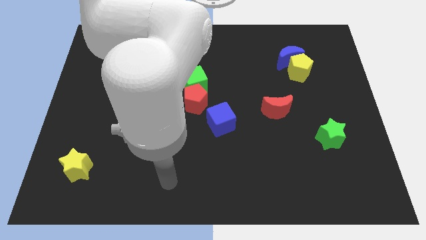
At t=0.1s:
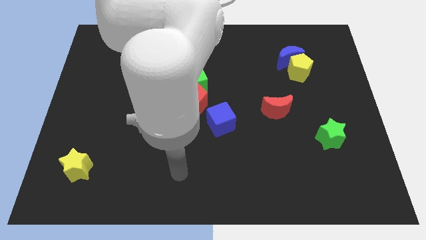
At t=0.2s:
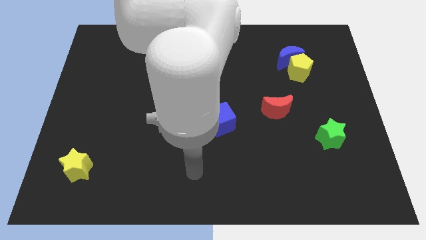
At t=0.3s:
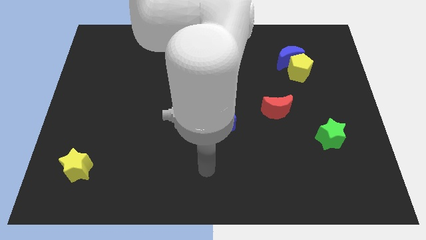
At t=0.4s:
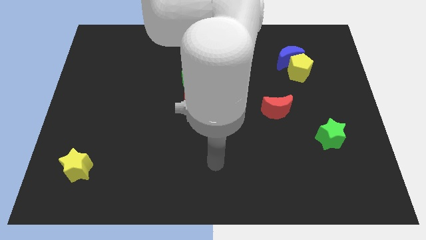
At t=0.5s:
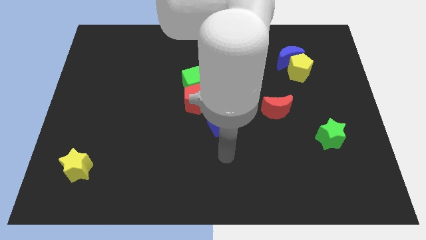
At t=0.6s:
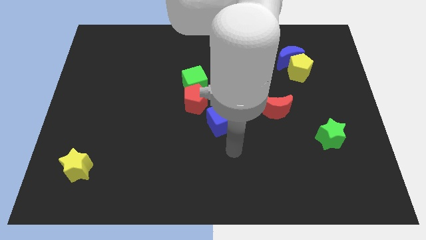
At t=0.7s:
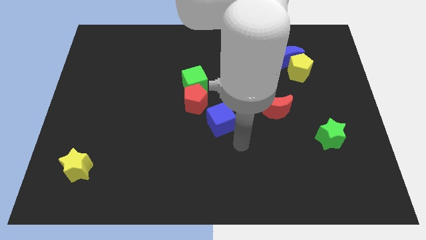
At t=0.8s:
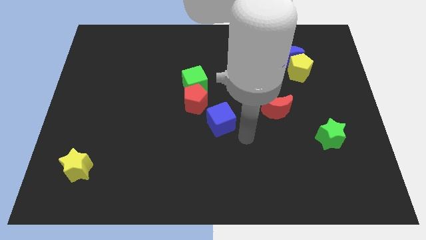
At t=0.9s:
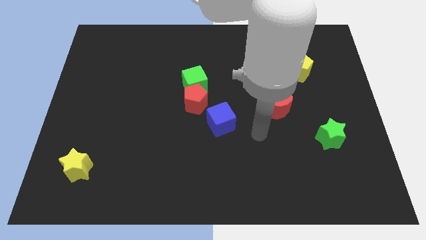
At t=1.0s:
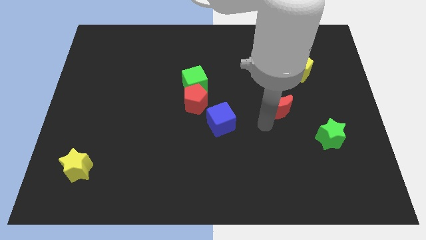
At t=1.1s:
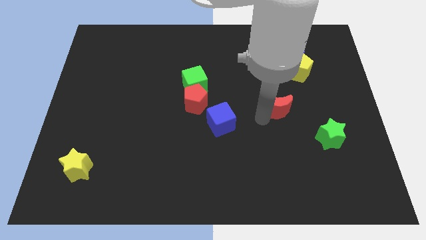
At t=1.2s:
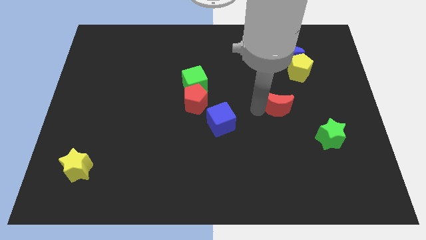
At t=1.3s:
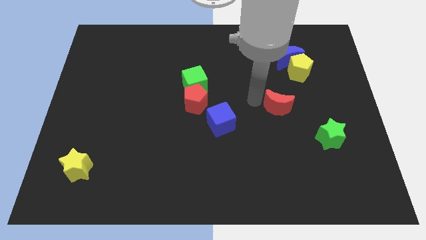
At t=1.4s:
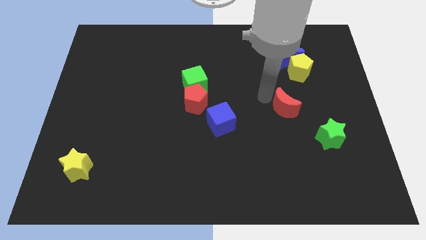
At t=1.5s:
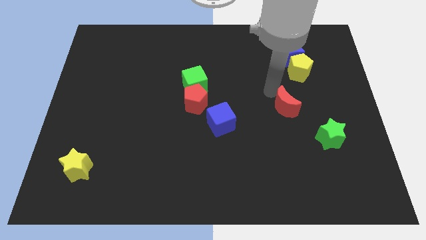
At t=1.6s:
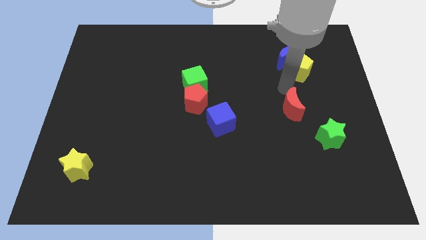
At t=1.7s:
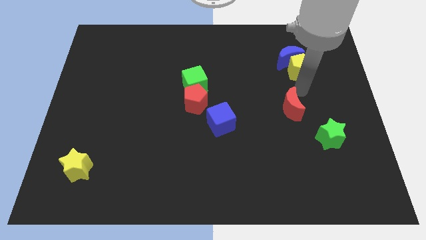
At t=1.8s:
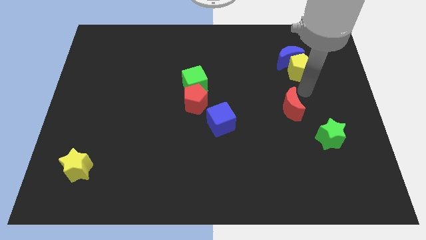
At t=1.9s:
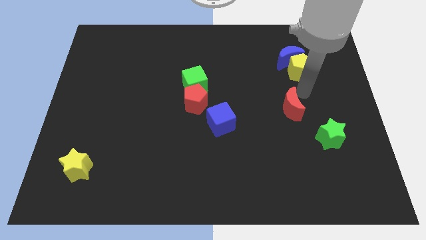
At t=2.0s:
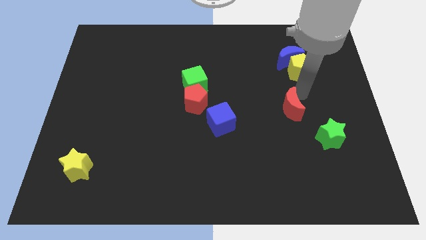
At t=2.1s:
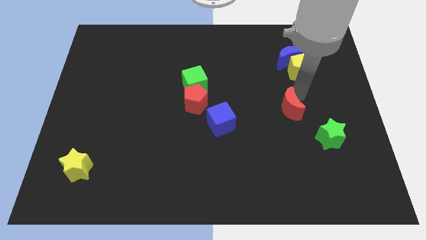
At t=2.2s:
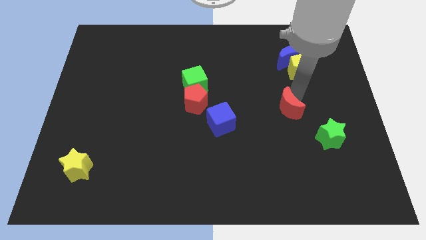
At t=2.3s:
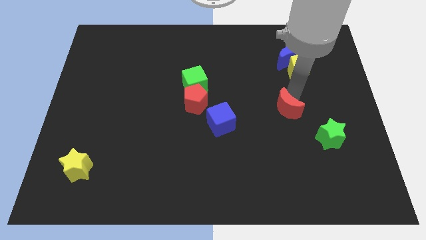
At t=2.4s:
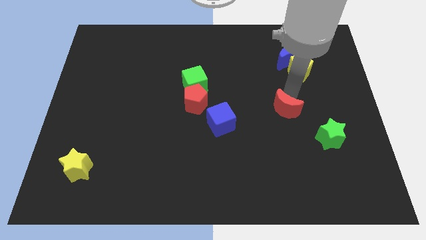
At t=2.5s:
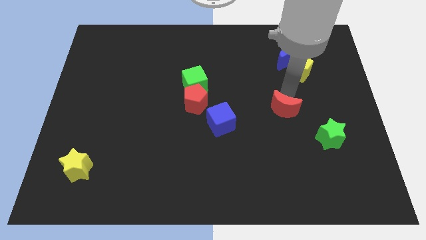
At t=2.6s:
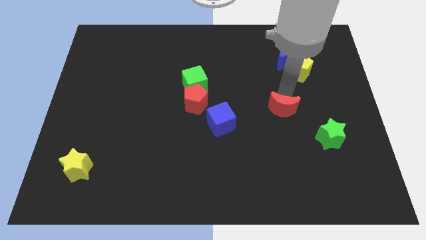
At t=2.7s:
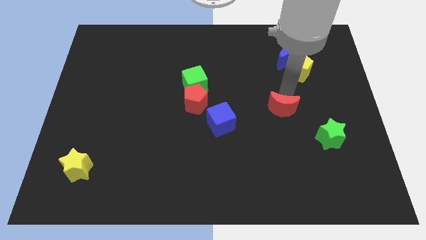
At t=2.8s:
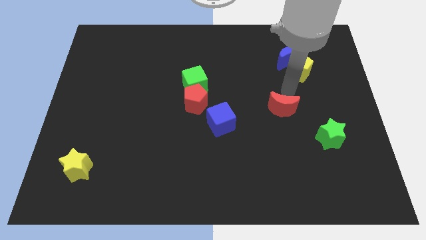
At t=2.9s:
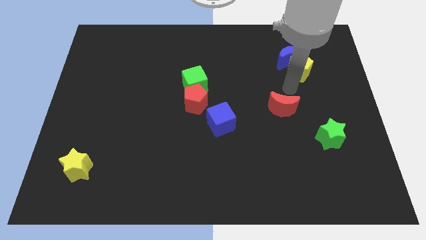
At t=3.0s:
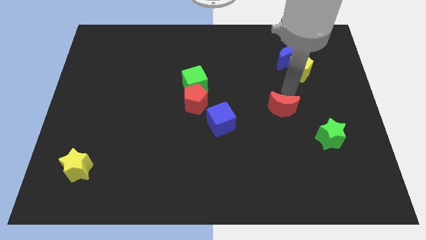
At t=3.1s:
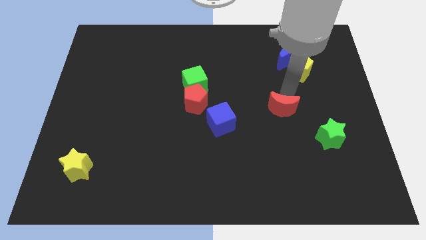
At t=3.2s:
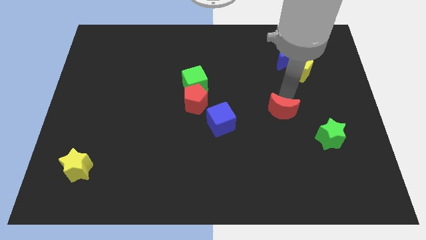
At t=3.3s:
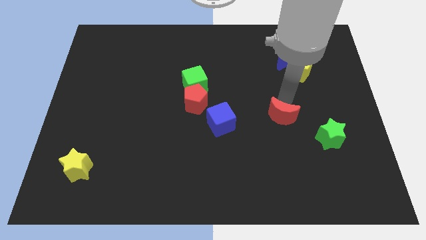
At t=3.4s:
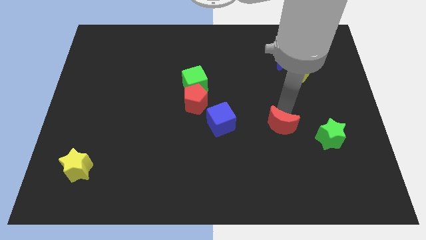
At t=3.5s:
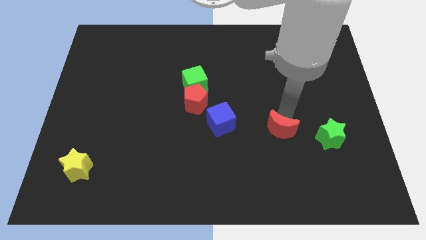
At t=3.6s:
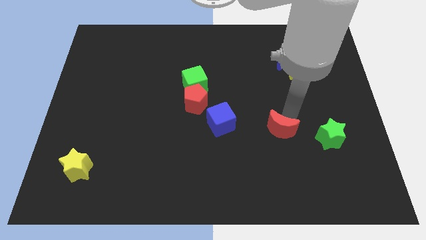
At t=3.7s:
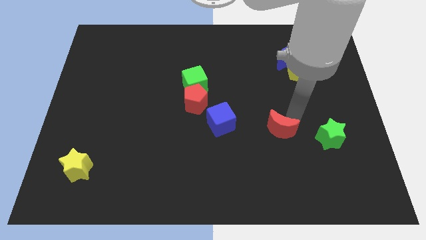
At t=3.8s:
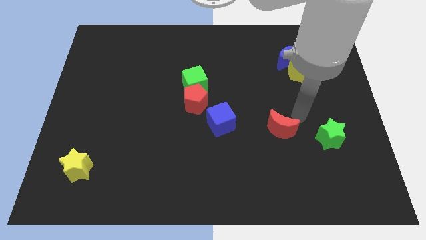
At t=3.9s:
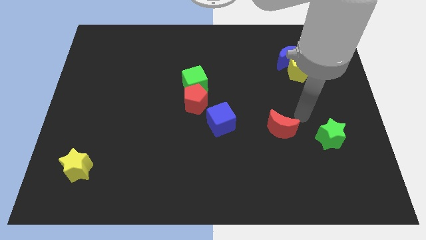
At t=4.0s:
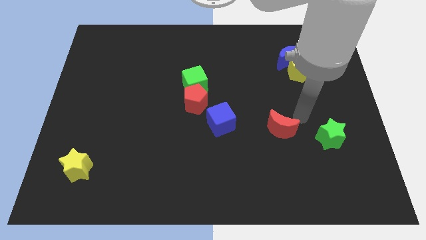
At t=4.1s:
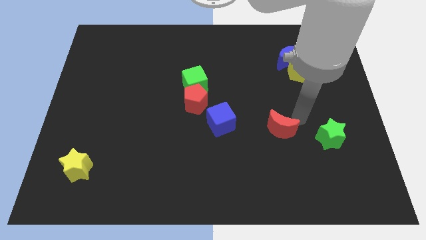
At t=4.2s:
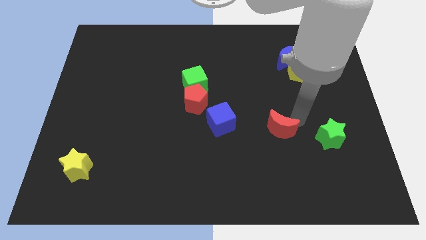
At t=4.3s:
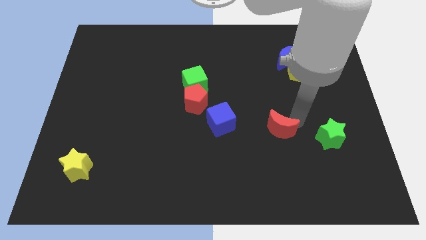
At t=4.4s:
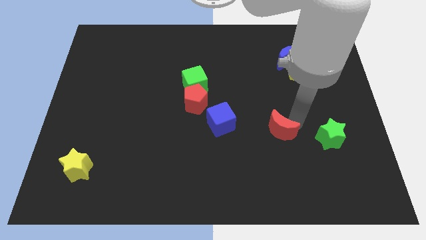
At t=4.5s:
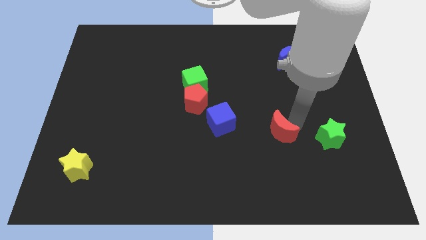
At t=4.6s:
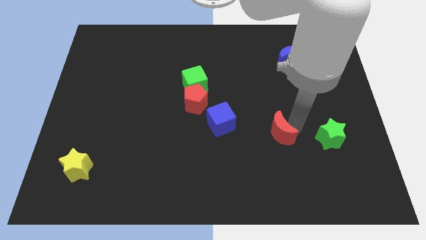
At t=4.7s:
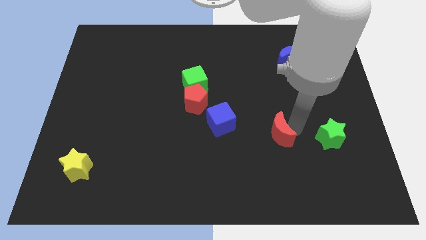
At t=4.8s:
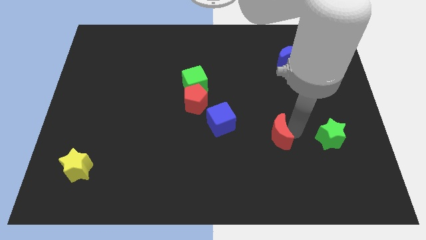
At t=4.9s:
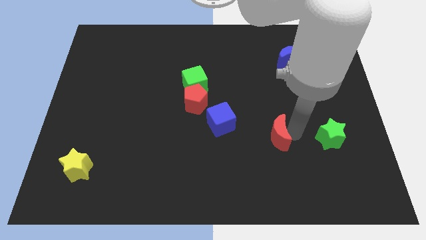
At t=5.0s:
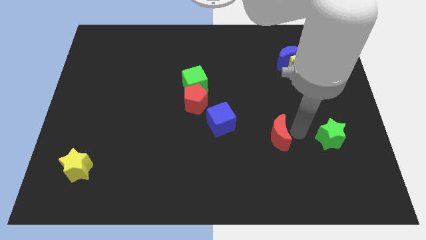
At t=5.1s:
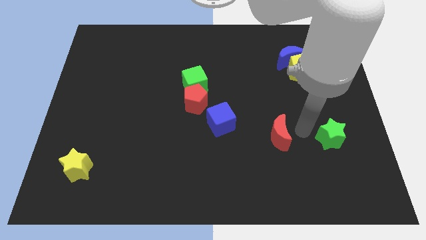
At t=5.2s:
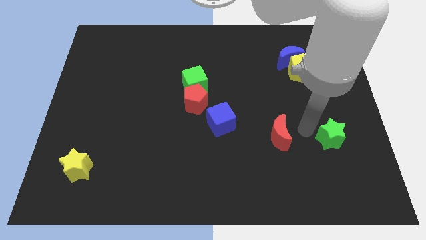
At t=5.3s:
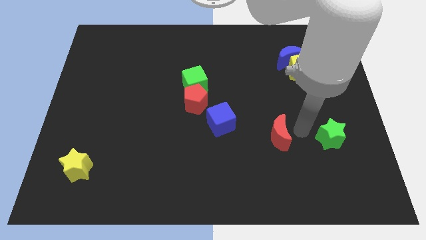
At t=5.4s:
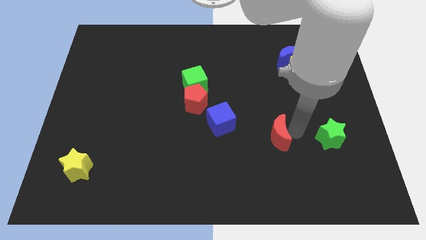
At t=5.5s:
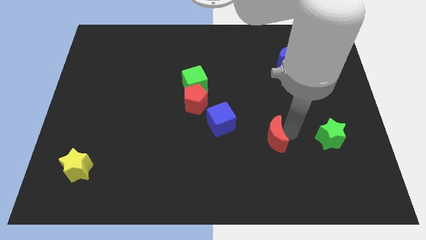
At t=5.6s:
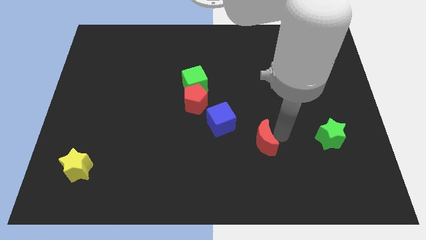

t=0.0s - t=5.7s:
push the red moon slightly downwards and left

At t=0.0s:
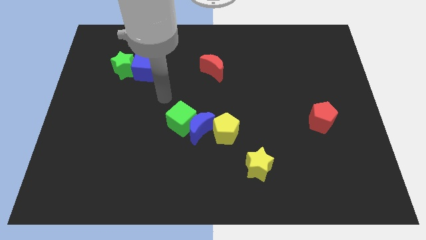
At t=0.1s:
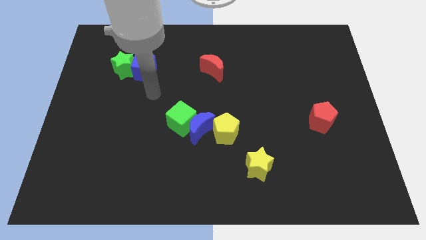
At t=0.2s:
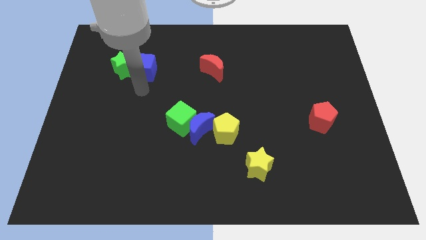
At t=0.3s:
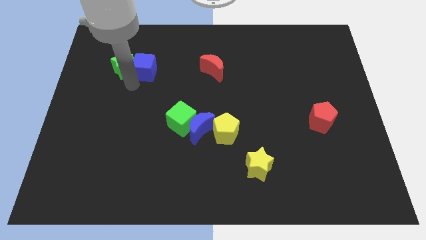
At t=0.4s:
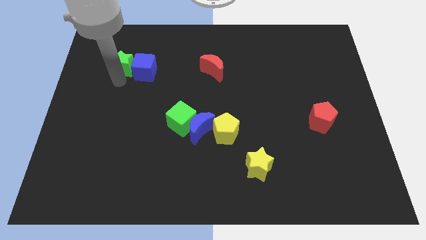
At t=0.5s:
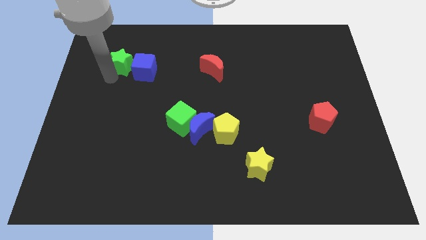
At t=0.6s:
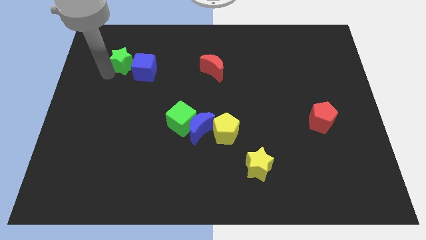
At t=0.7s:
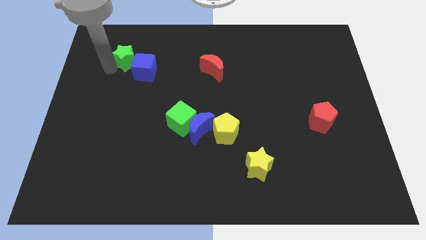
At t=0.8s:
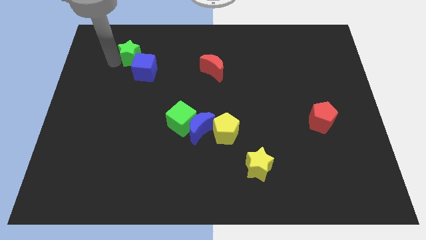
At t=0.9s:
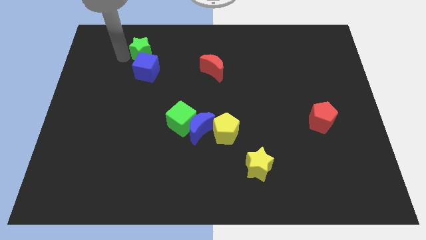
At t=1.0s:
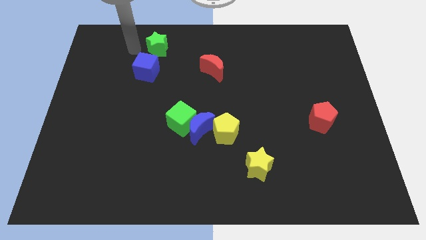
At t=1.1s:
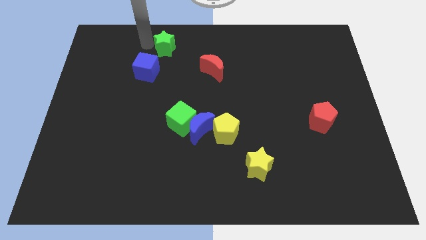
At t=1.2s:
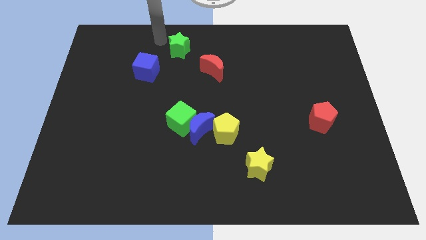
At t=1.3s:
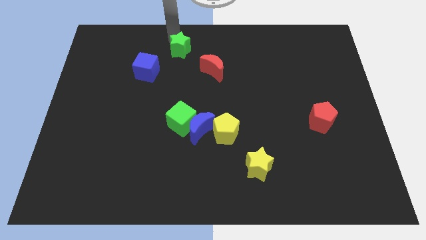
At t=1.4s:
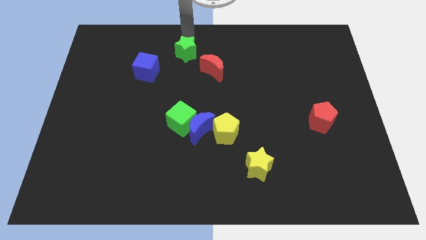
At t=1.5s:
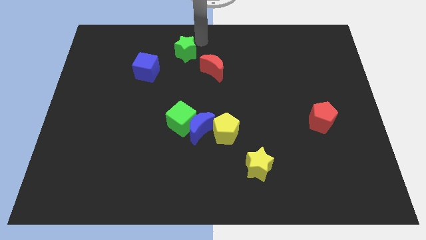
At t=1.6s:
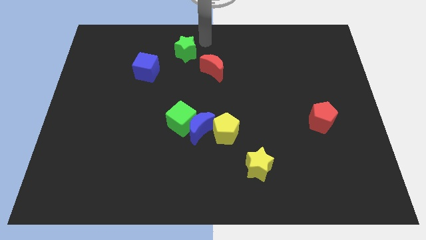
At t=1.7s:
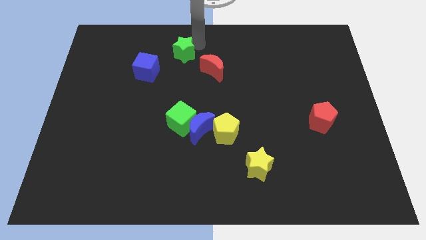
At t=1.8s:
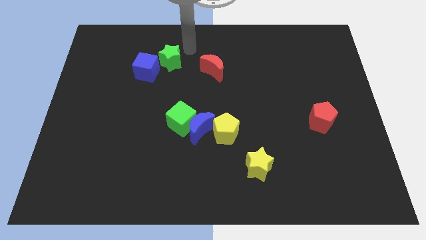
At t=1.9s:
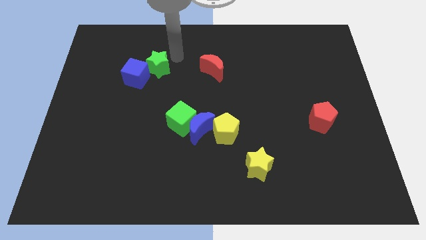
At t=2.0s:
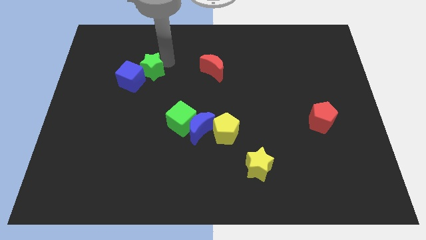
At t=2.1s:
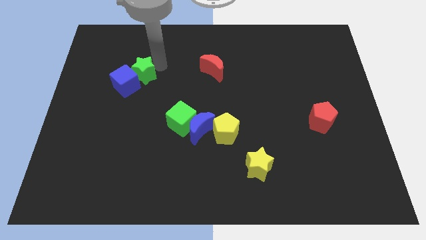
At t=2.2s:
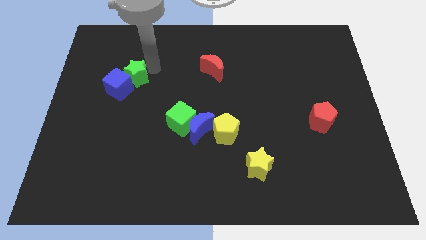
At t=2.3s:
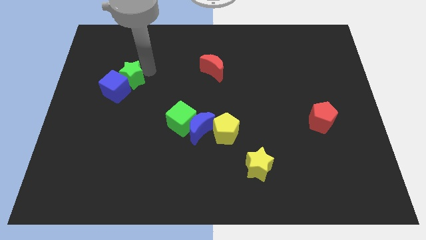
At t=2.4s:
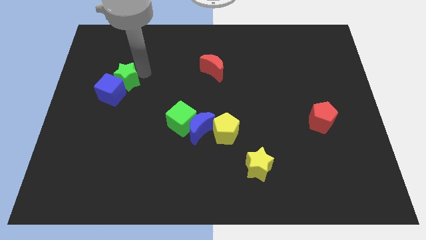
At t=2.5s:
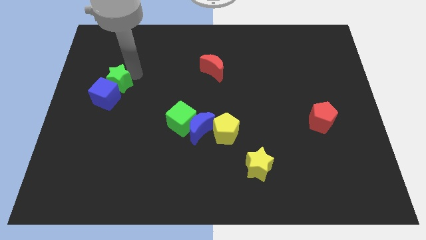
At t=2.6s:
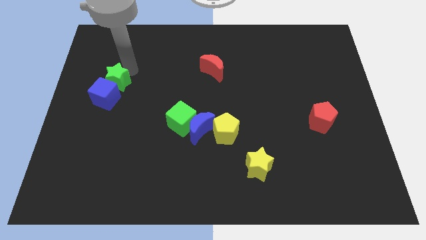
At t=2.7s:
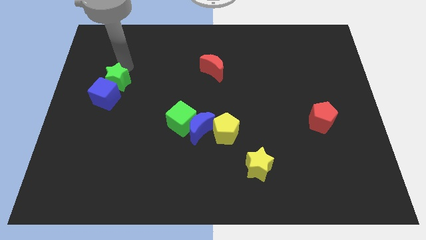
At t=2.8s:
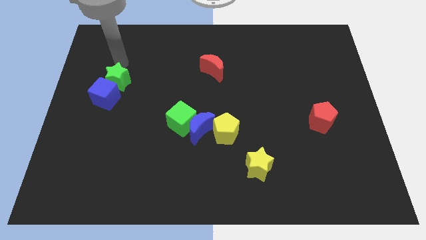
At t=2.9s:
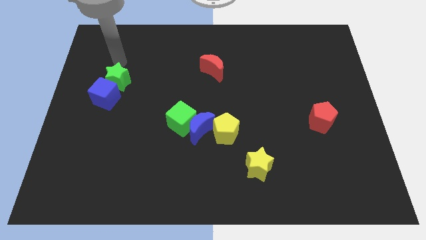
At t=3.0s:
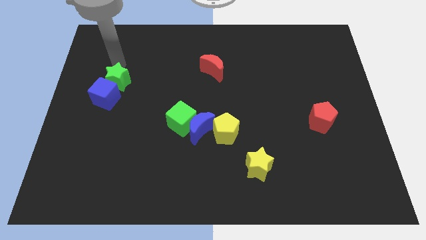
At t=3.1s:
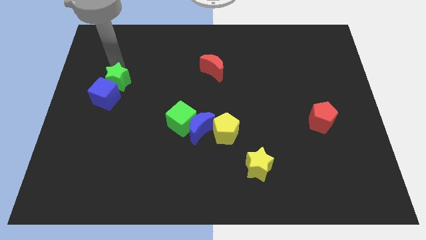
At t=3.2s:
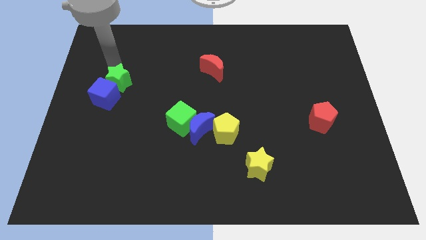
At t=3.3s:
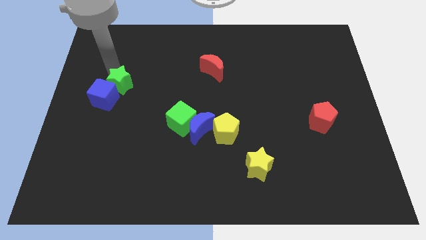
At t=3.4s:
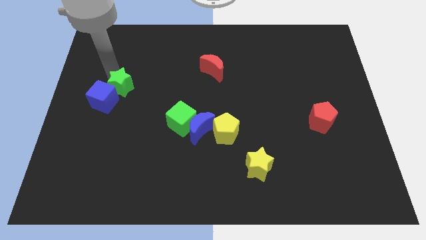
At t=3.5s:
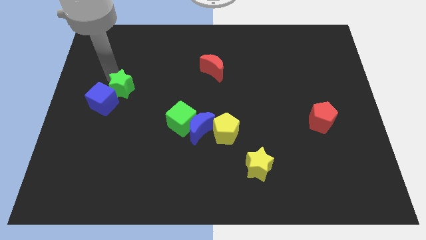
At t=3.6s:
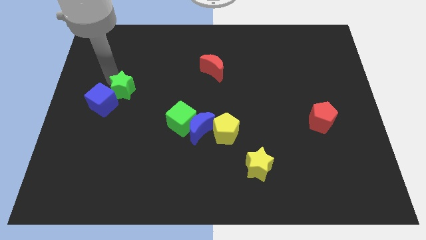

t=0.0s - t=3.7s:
slide the green star downwards somewhat
